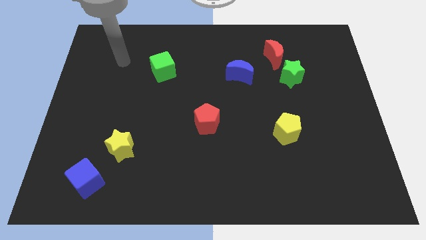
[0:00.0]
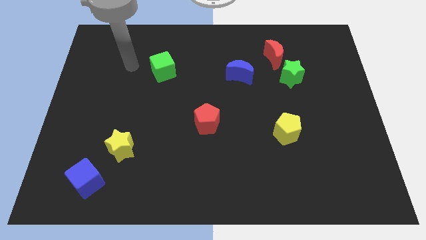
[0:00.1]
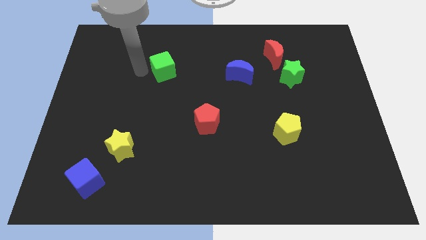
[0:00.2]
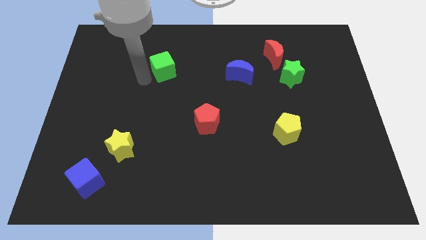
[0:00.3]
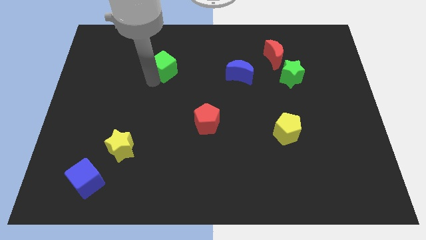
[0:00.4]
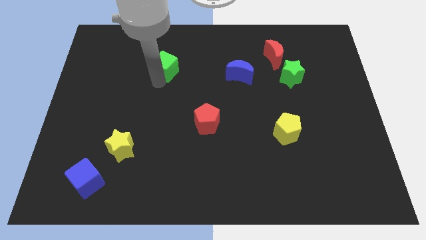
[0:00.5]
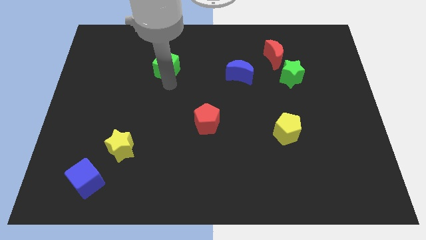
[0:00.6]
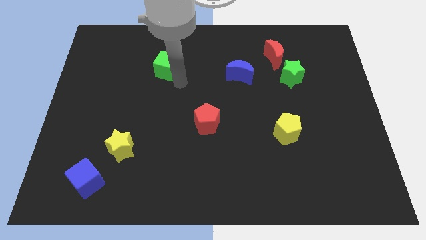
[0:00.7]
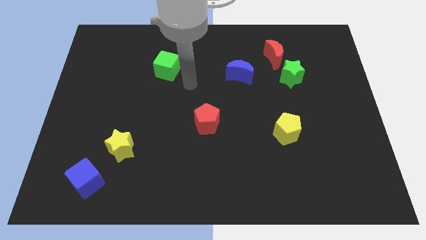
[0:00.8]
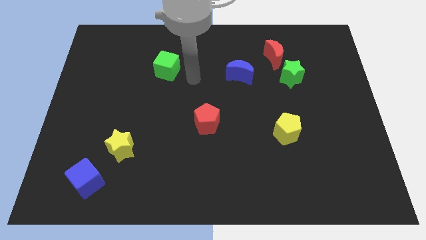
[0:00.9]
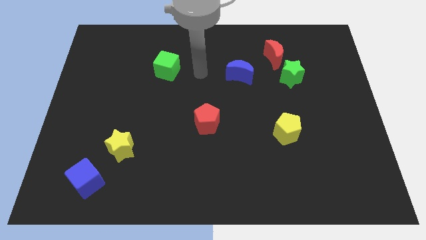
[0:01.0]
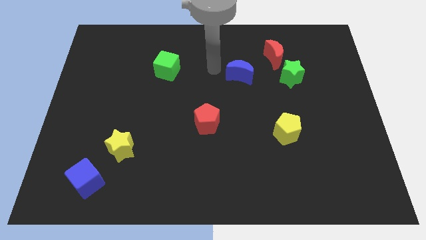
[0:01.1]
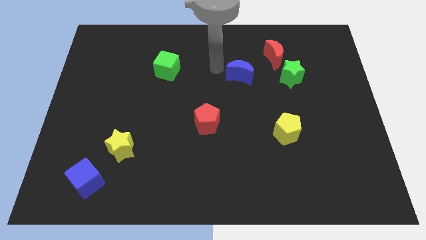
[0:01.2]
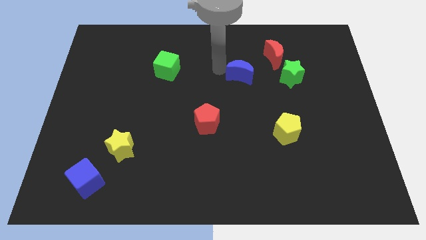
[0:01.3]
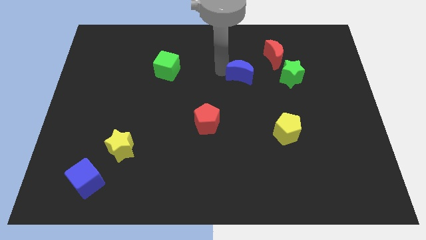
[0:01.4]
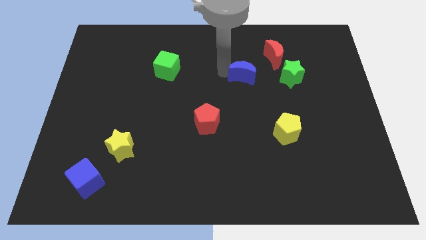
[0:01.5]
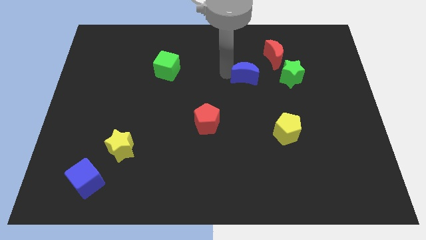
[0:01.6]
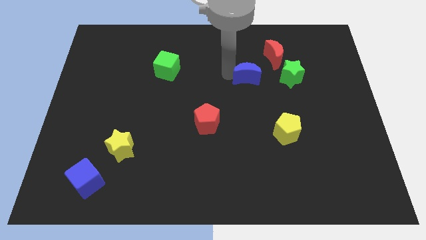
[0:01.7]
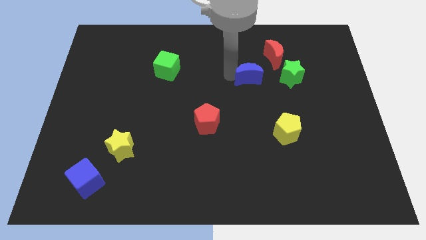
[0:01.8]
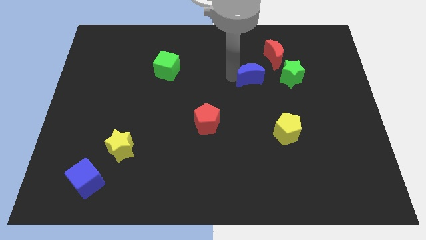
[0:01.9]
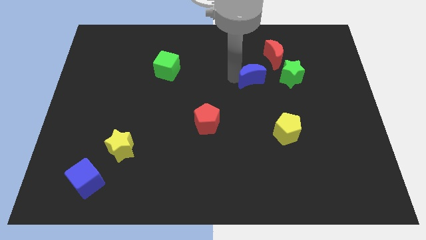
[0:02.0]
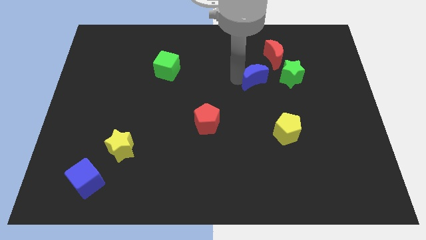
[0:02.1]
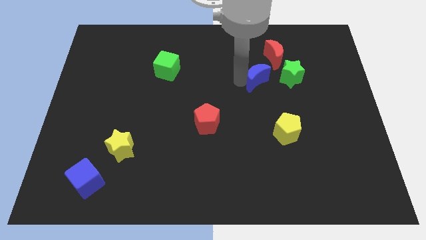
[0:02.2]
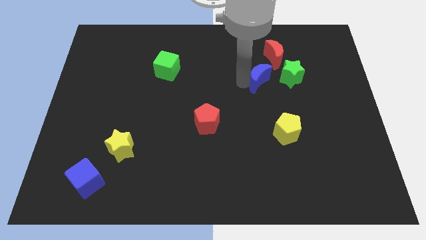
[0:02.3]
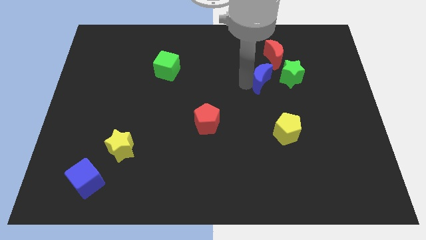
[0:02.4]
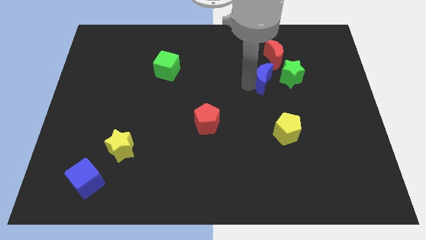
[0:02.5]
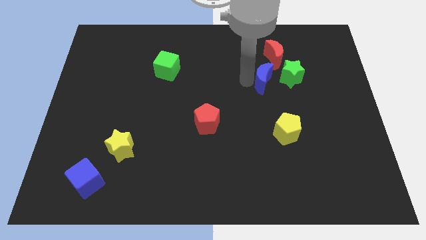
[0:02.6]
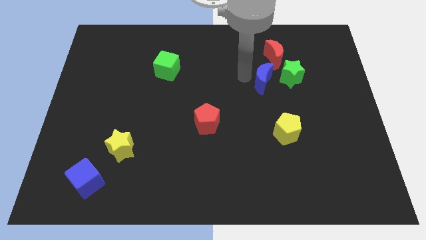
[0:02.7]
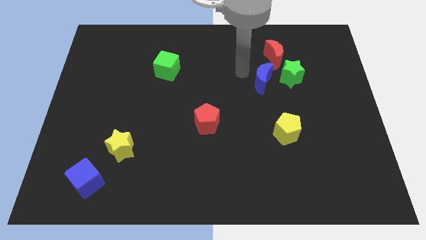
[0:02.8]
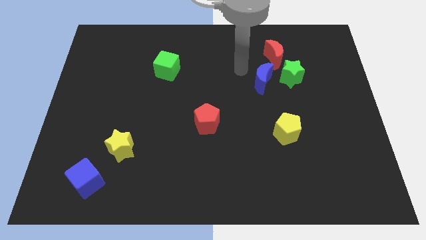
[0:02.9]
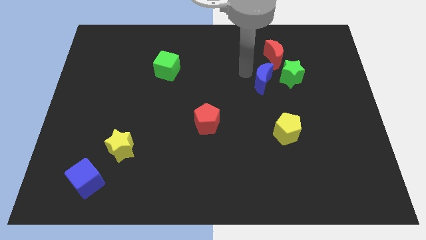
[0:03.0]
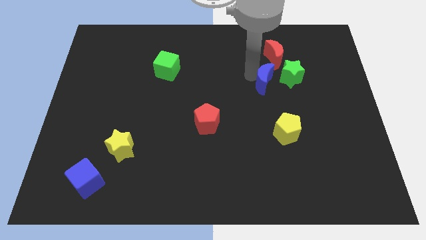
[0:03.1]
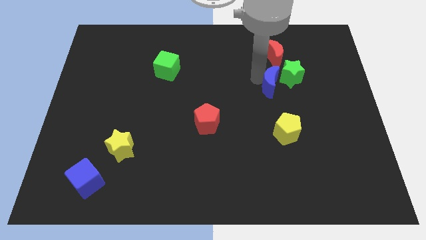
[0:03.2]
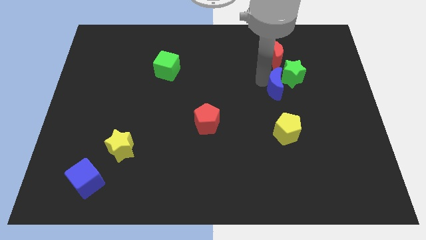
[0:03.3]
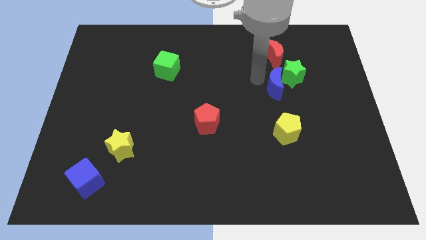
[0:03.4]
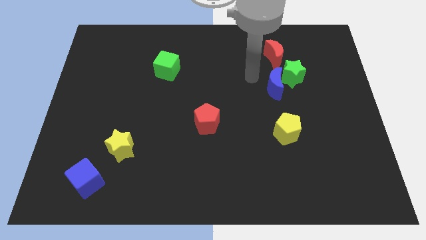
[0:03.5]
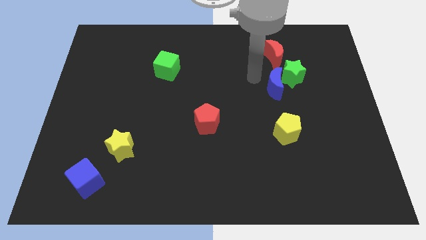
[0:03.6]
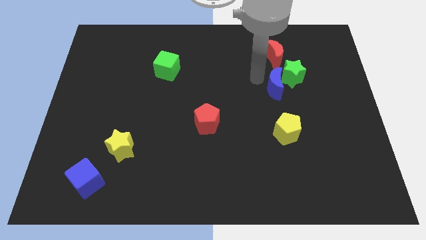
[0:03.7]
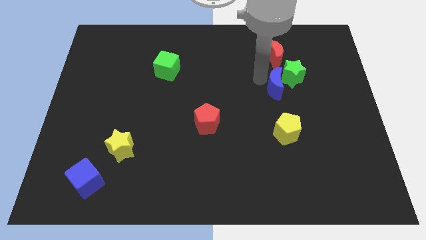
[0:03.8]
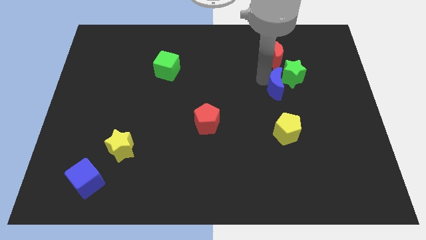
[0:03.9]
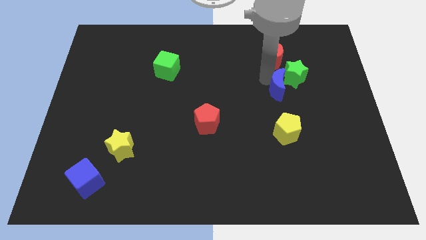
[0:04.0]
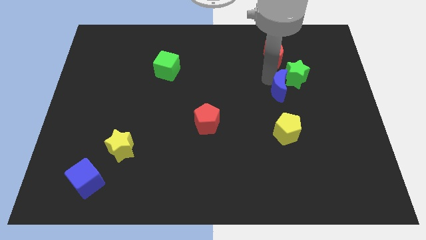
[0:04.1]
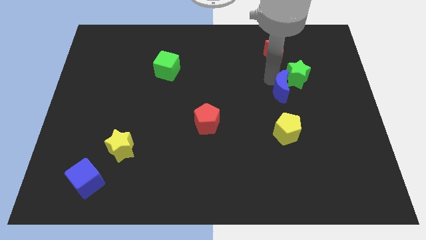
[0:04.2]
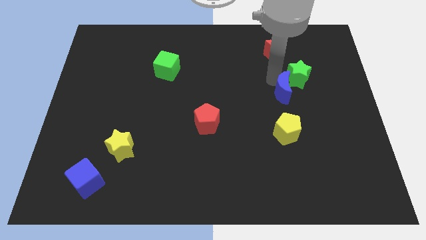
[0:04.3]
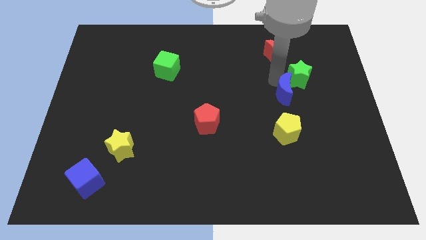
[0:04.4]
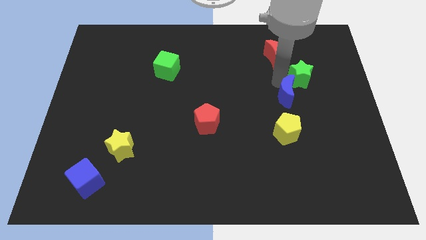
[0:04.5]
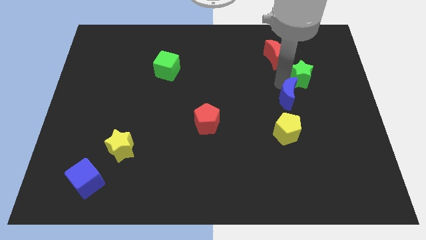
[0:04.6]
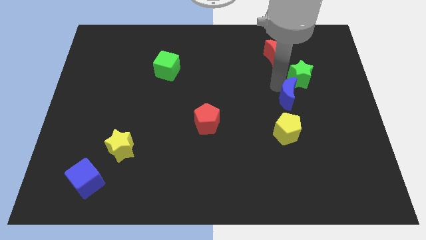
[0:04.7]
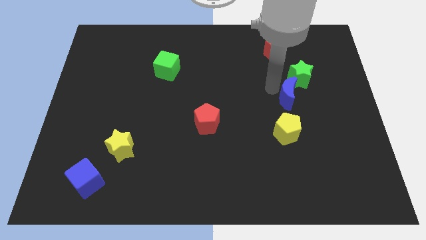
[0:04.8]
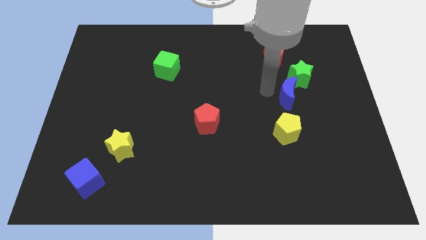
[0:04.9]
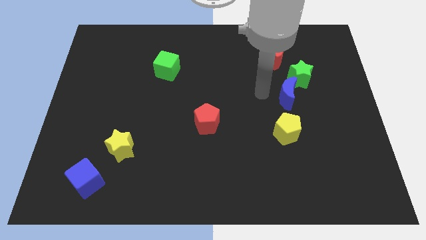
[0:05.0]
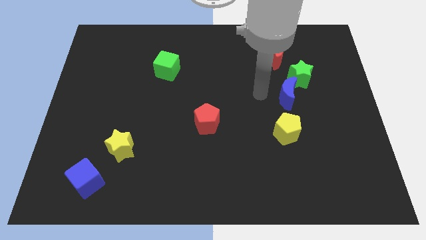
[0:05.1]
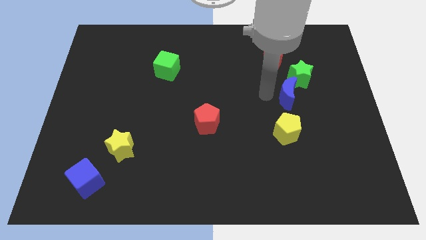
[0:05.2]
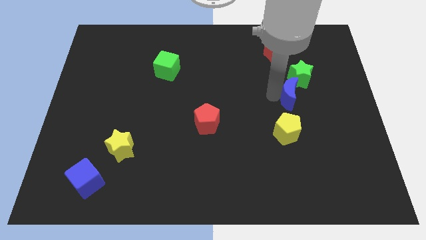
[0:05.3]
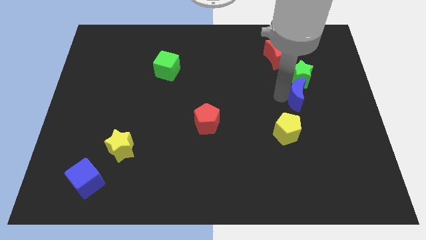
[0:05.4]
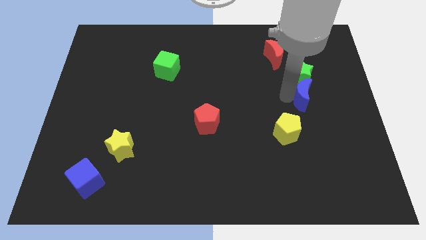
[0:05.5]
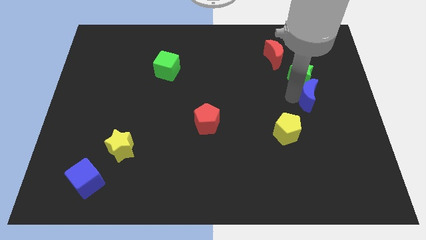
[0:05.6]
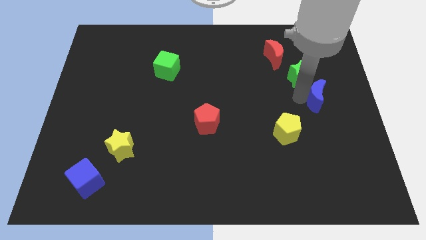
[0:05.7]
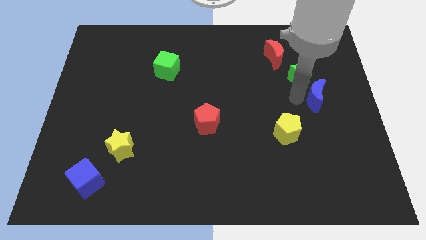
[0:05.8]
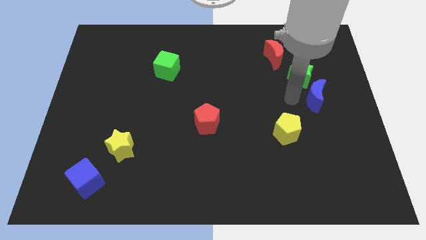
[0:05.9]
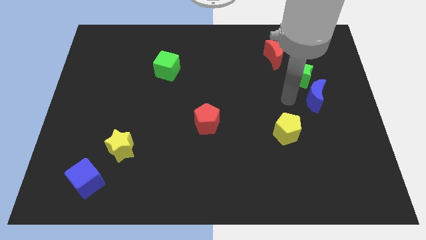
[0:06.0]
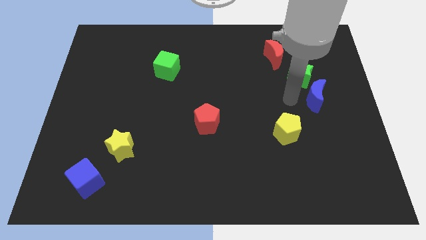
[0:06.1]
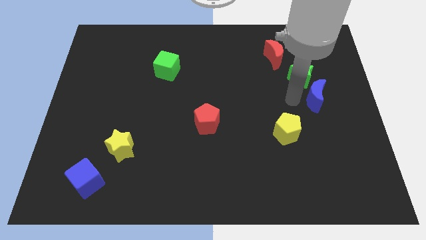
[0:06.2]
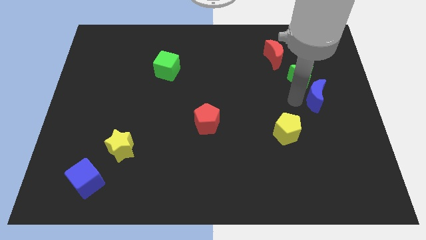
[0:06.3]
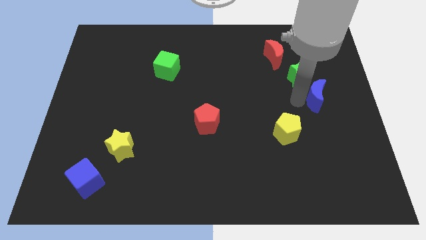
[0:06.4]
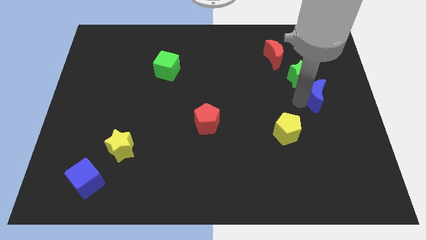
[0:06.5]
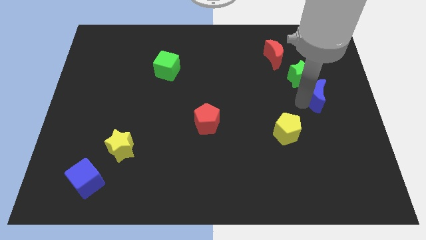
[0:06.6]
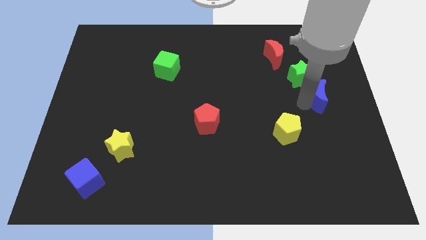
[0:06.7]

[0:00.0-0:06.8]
slide the blue moon to the center right
